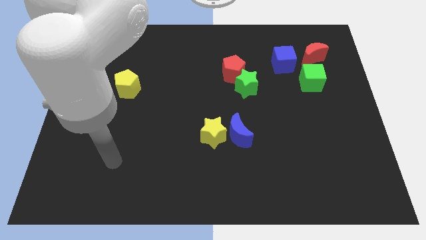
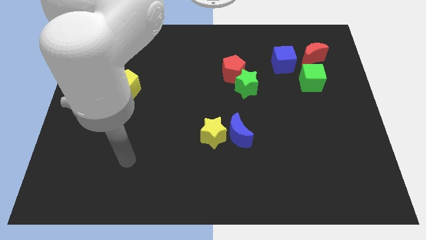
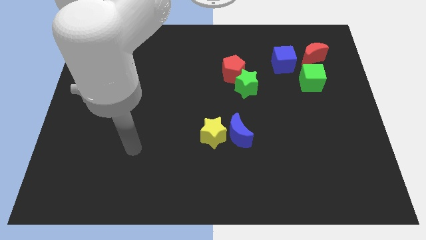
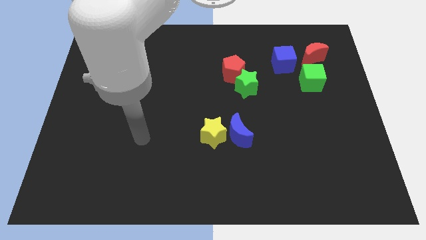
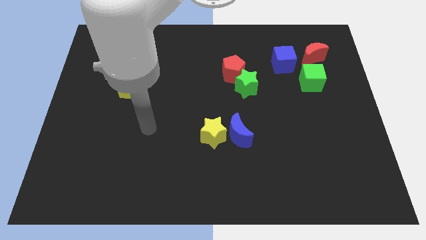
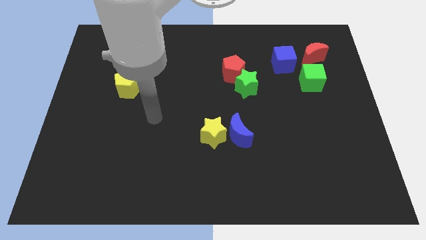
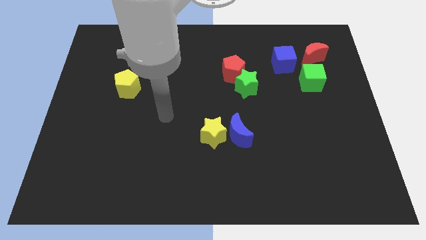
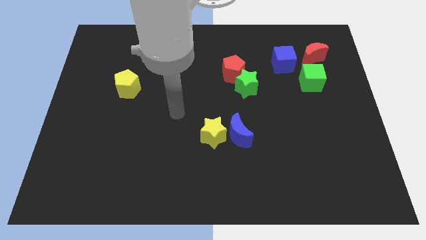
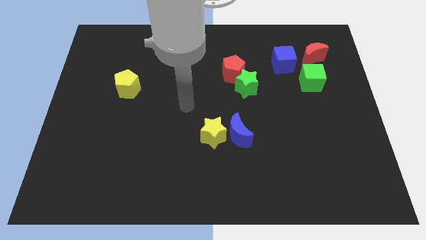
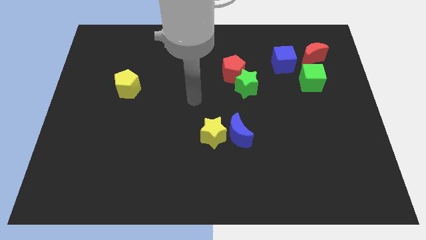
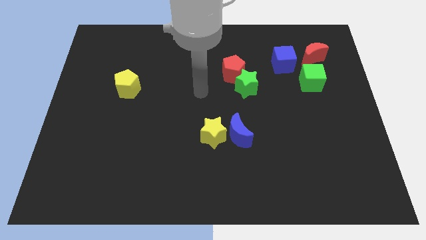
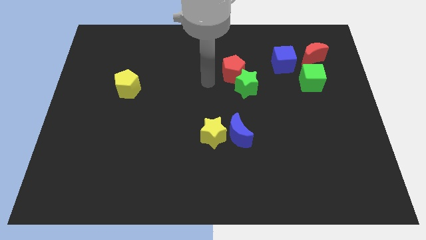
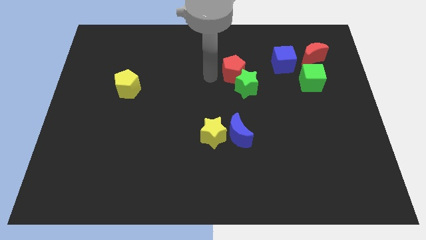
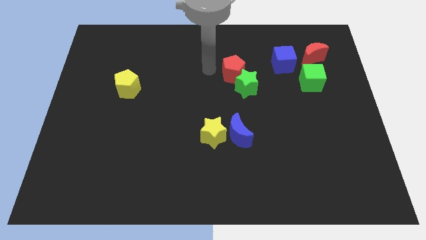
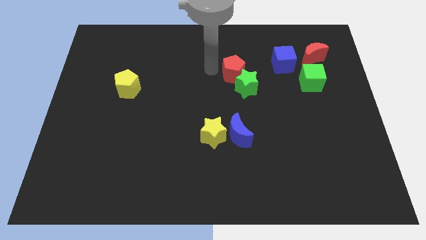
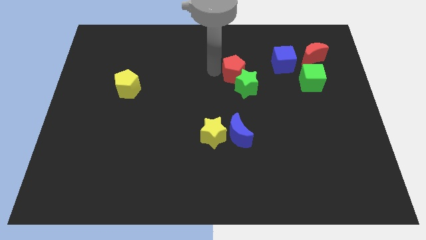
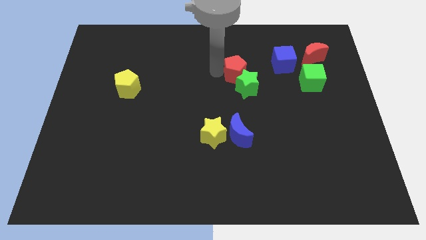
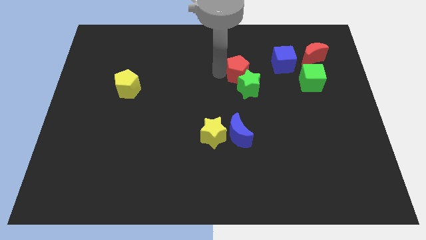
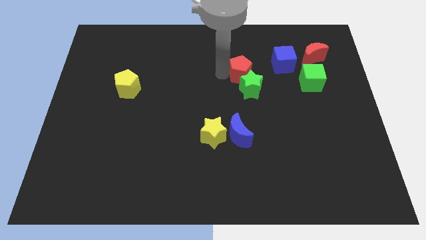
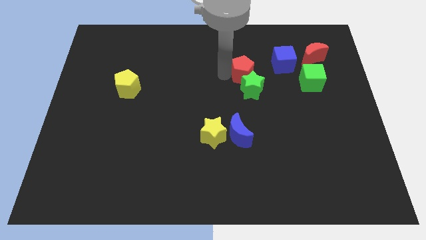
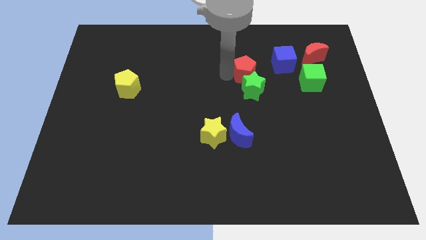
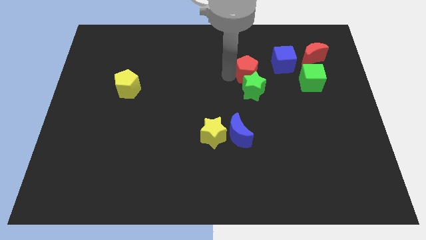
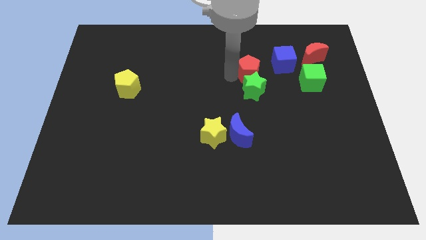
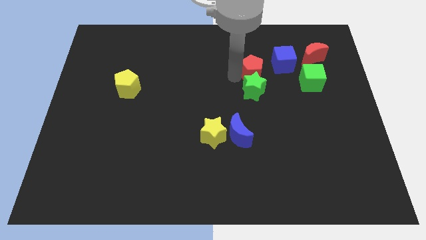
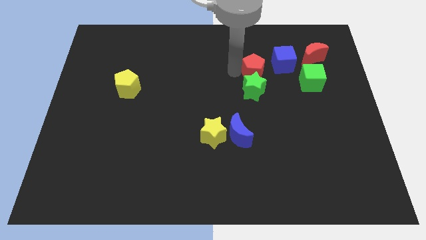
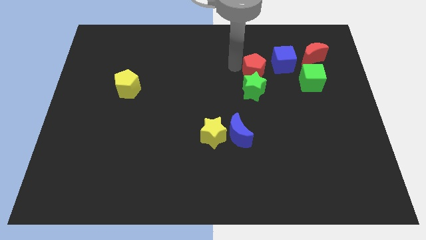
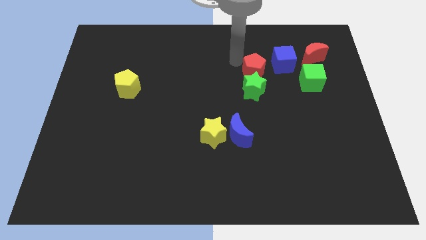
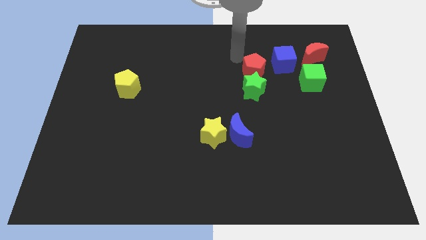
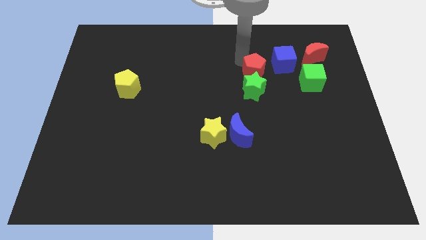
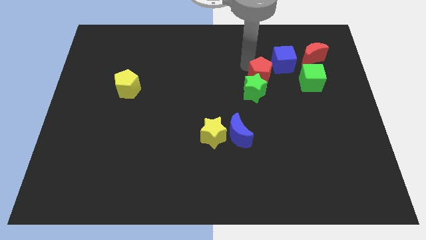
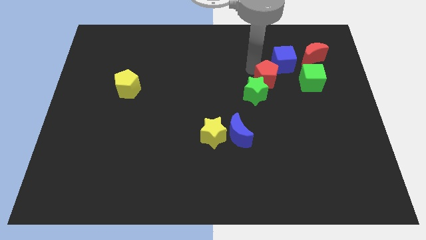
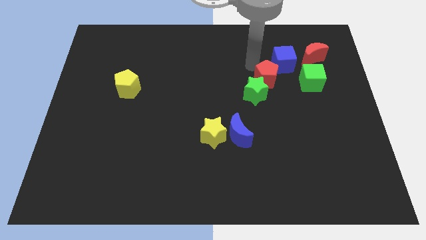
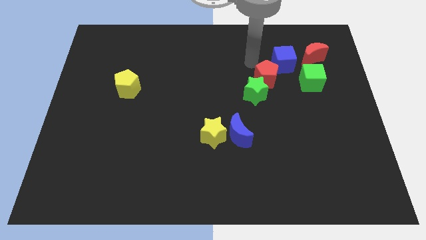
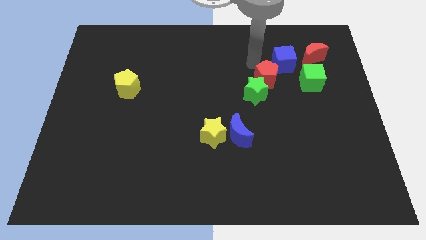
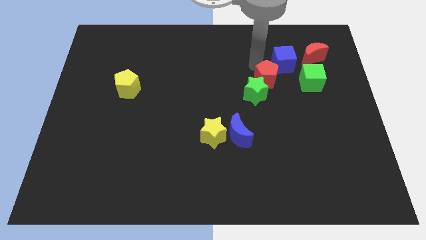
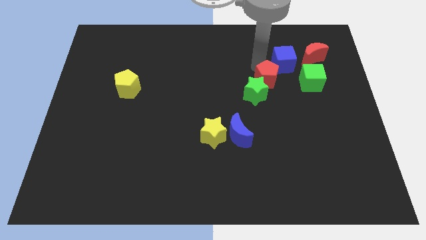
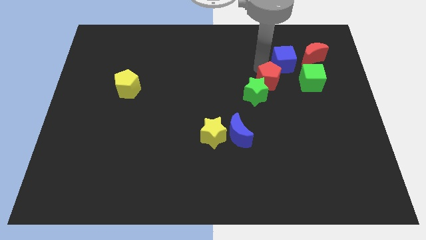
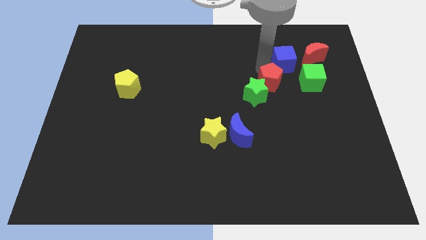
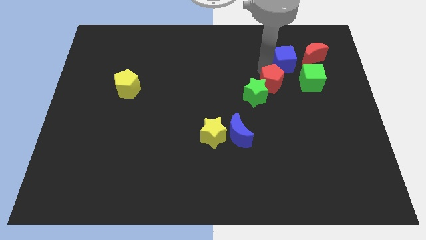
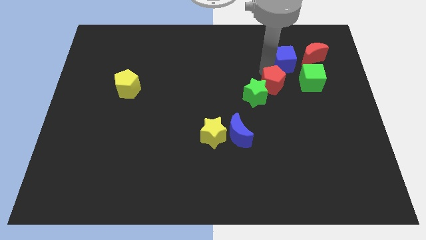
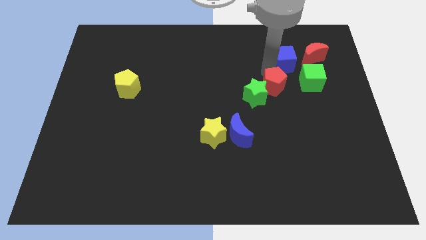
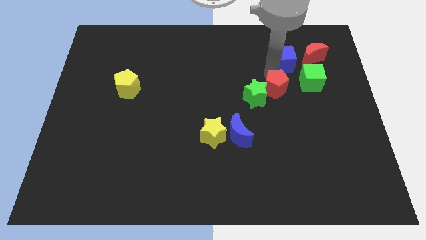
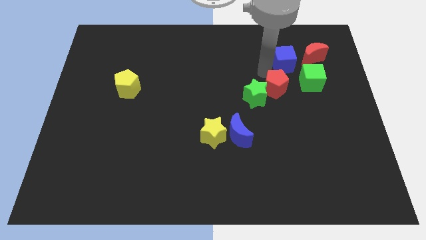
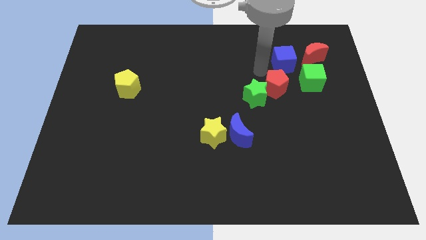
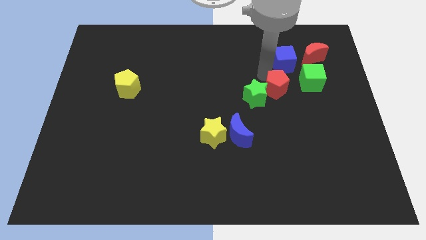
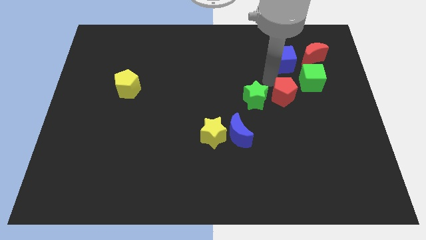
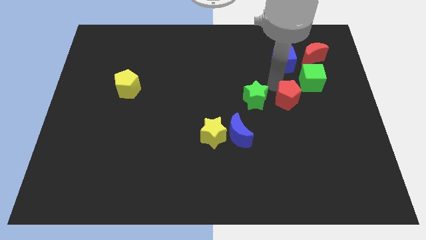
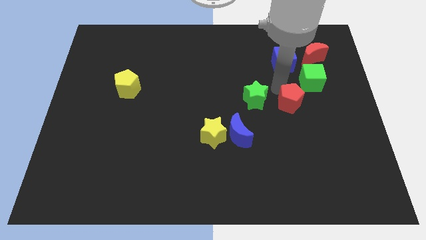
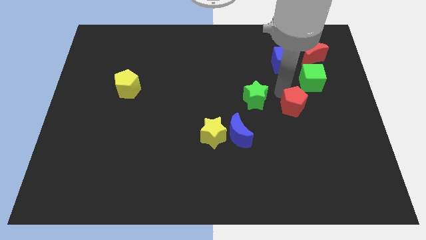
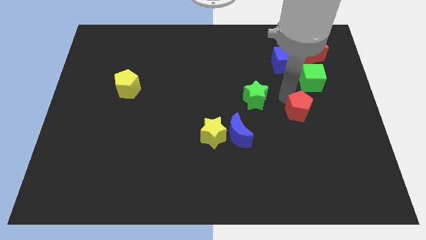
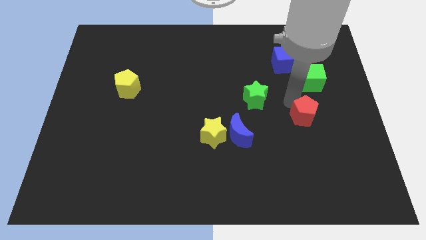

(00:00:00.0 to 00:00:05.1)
move the red pentagon down and then to the right

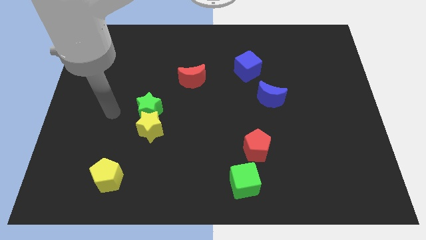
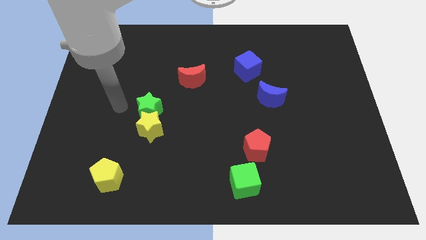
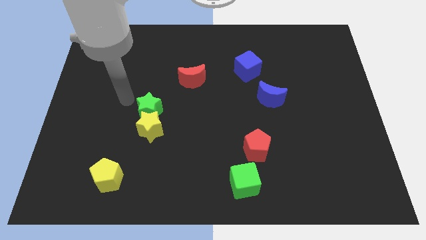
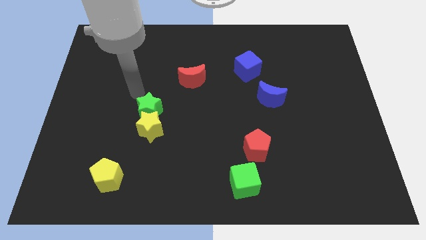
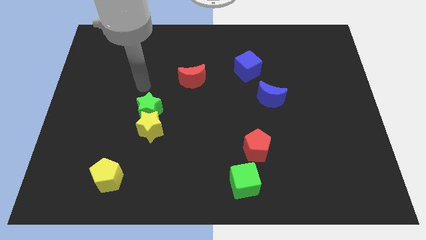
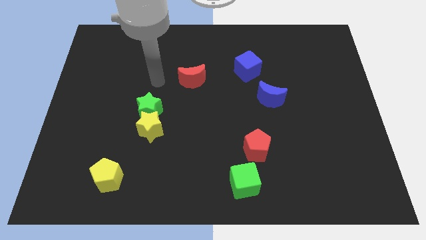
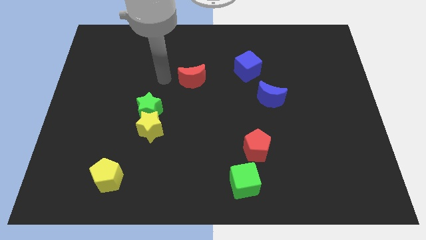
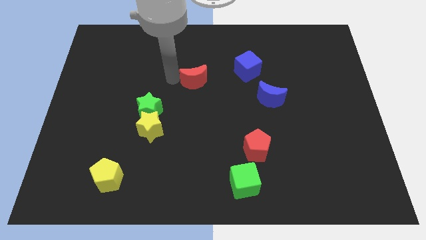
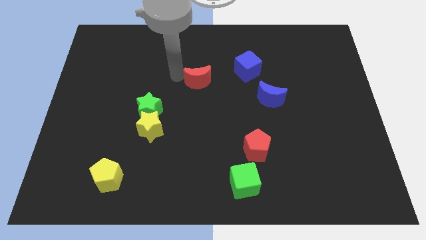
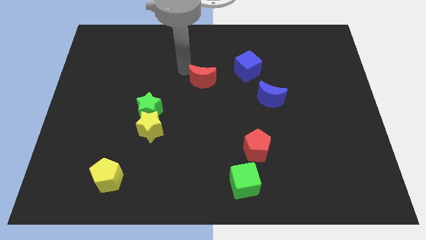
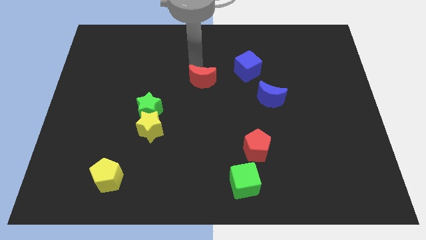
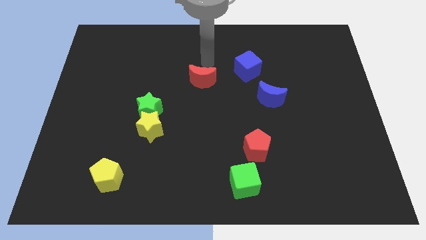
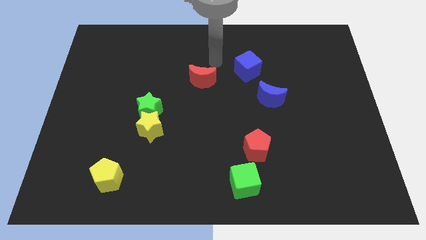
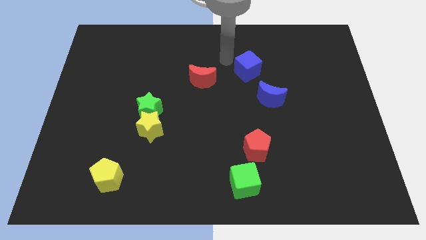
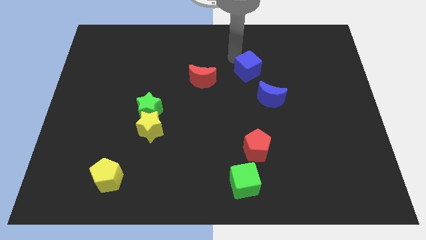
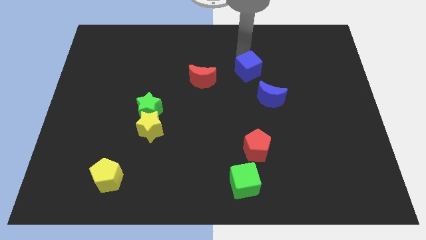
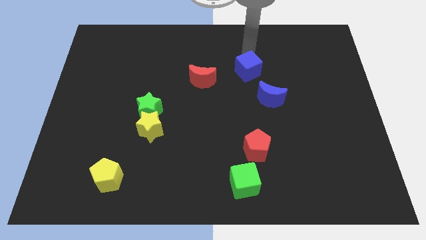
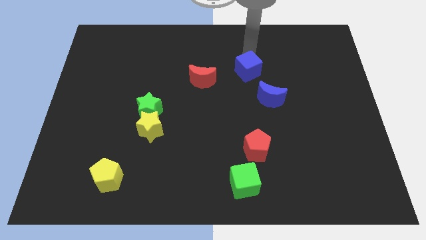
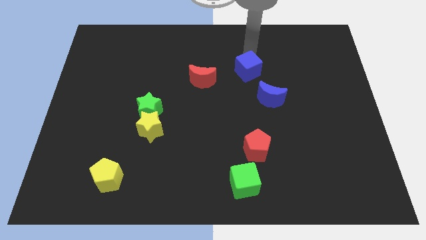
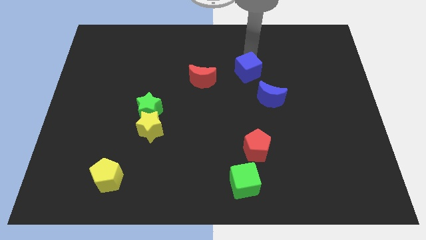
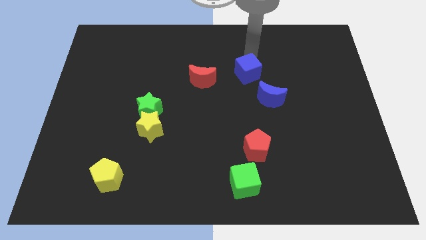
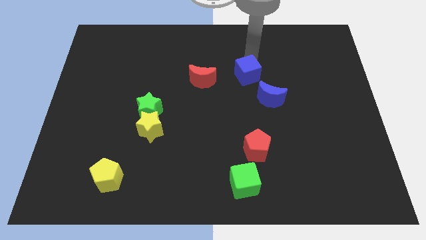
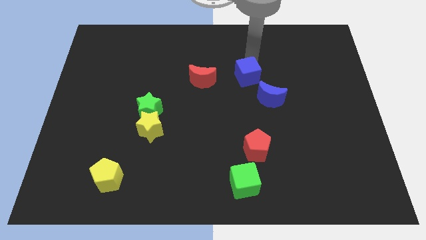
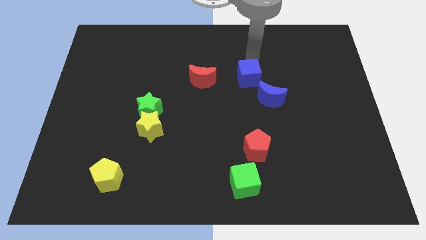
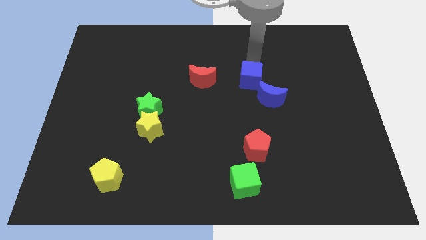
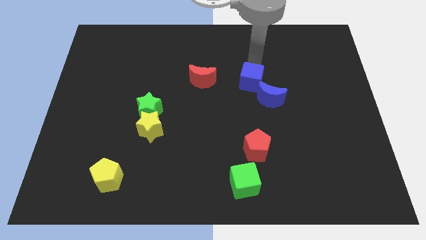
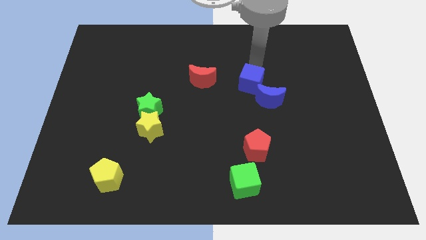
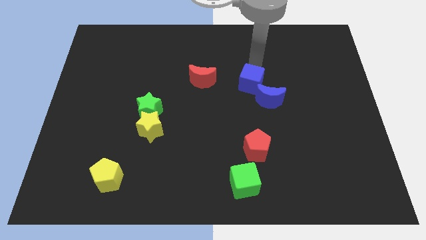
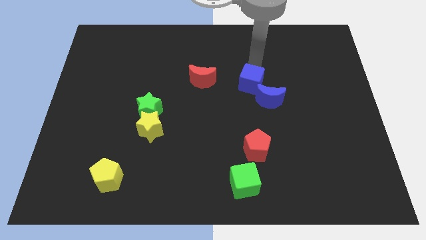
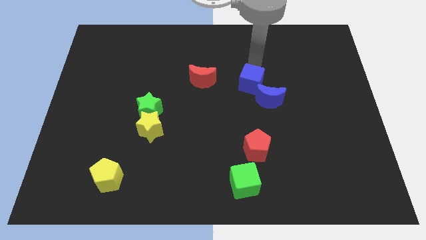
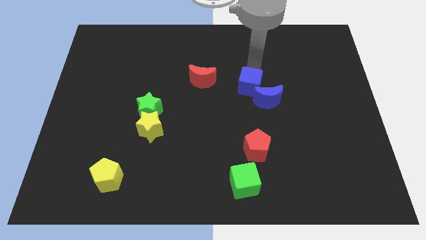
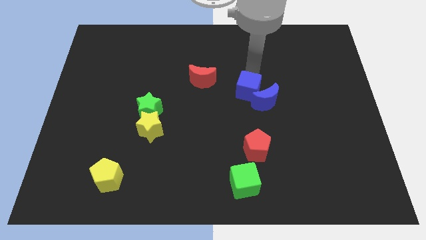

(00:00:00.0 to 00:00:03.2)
move the blue cube slightly downwards
